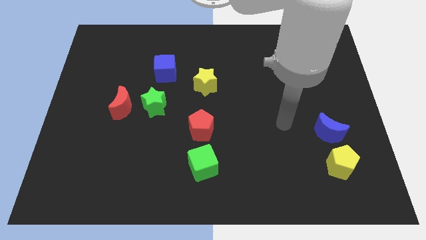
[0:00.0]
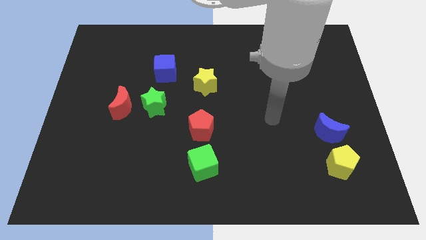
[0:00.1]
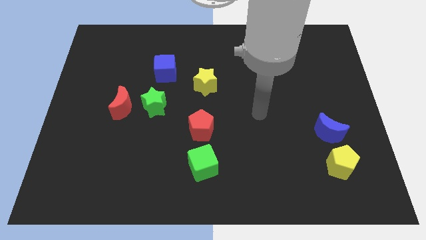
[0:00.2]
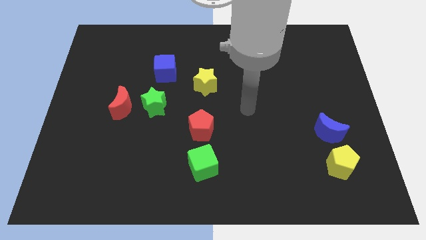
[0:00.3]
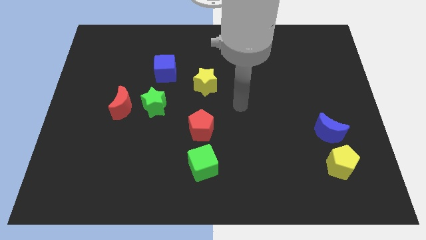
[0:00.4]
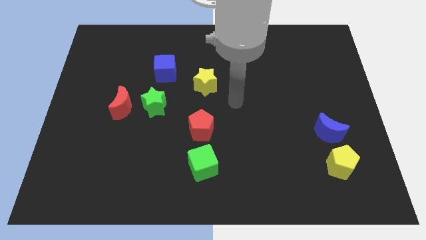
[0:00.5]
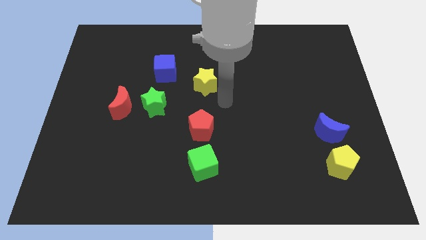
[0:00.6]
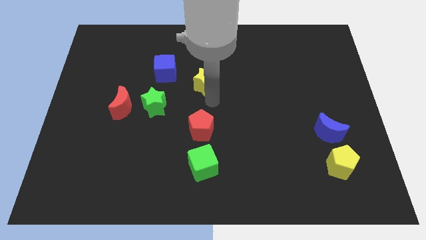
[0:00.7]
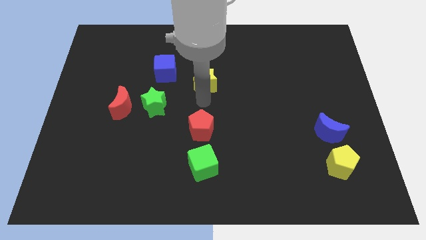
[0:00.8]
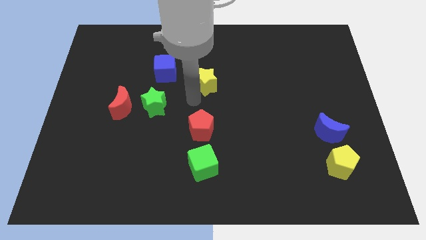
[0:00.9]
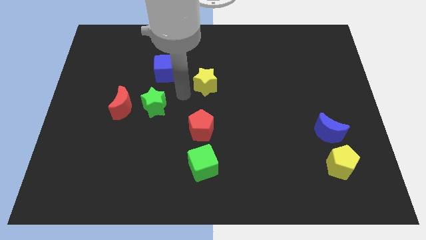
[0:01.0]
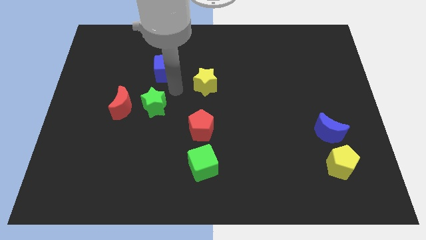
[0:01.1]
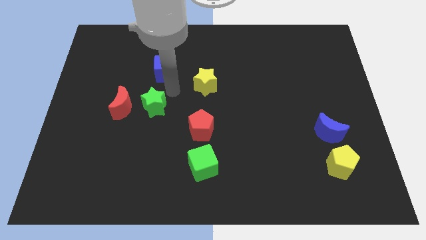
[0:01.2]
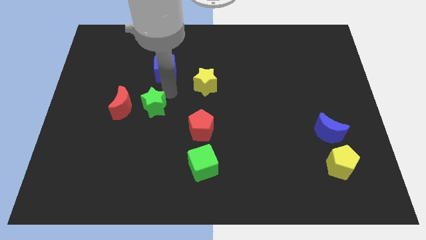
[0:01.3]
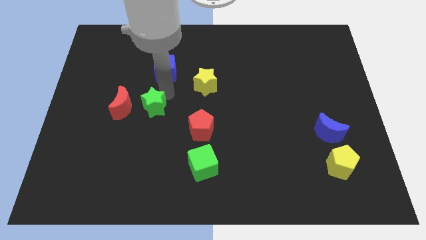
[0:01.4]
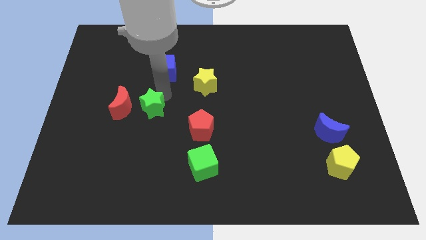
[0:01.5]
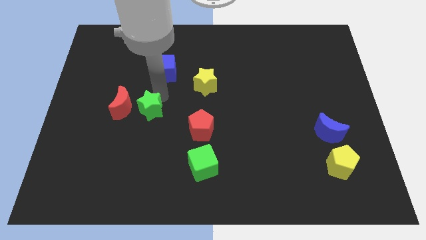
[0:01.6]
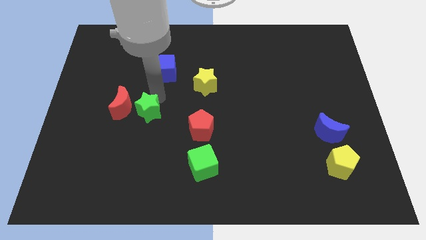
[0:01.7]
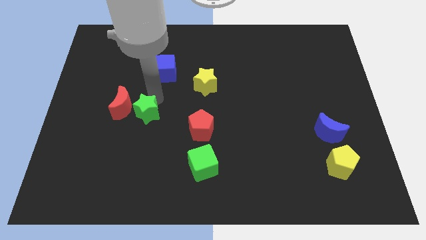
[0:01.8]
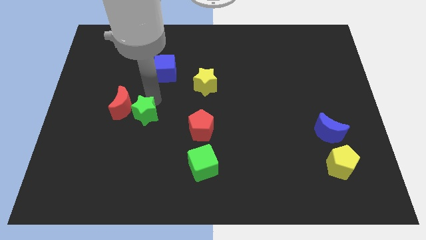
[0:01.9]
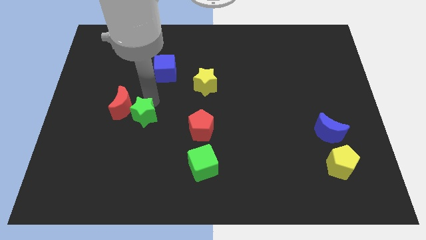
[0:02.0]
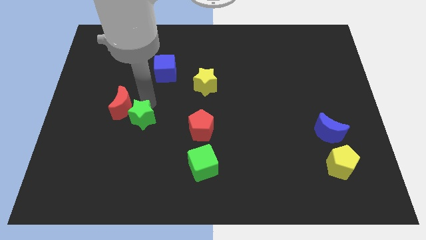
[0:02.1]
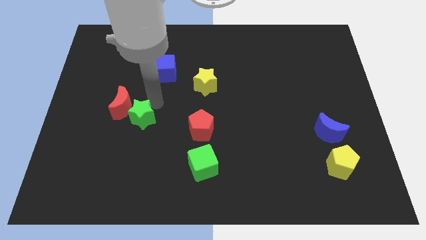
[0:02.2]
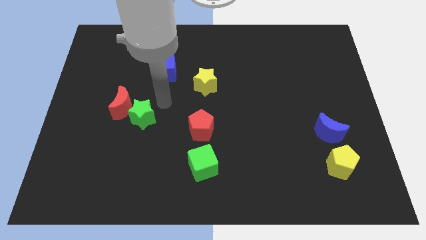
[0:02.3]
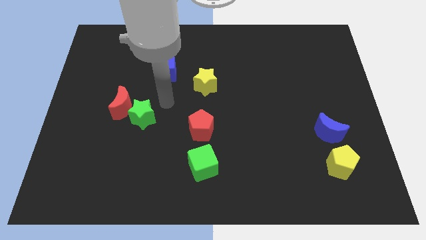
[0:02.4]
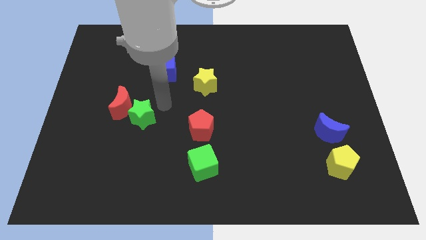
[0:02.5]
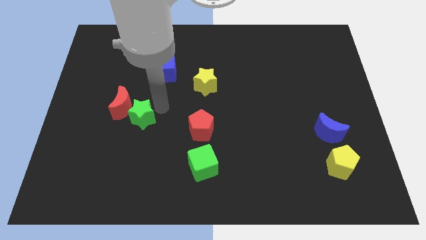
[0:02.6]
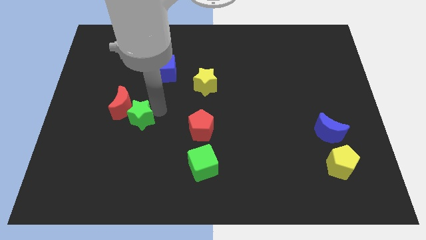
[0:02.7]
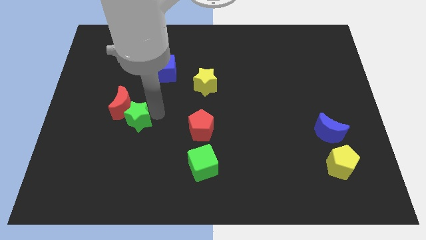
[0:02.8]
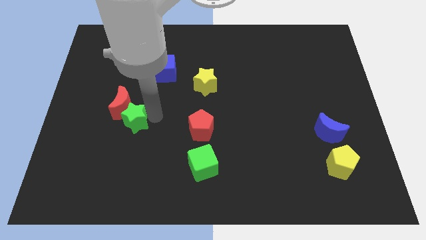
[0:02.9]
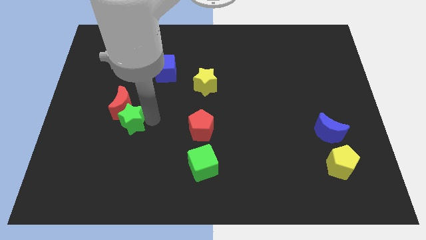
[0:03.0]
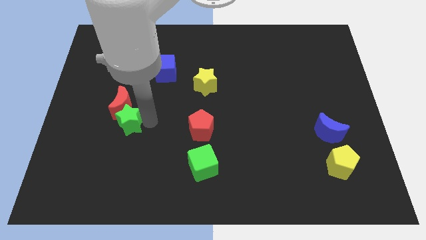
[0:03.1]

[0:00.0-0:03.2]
push the green star somewhat downwards and to the left
